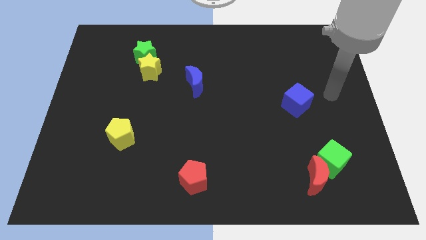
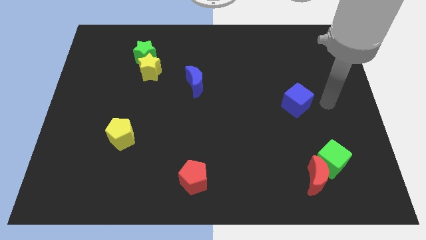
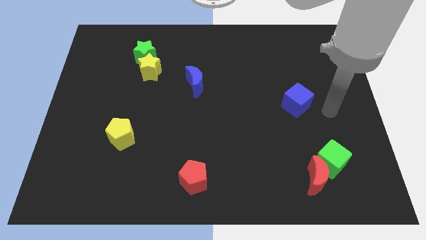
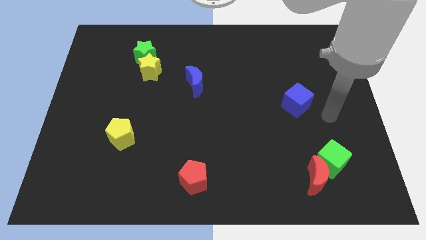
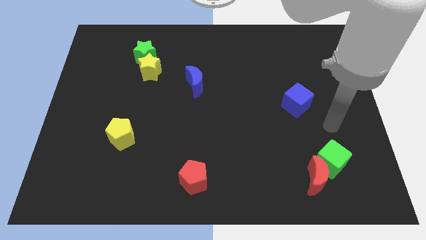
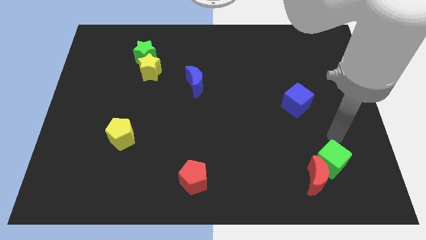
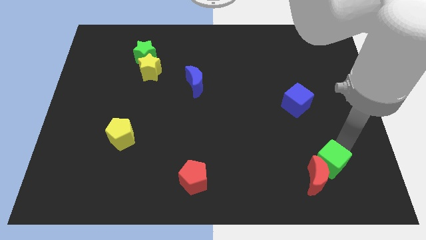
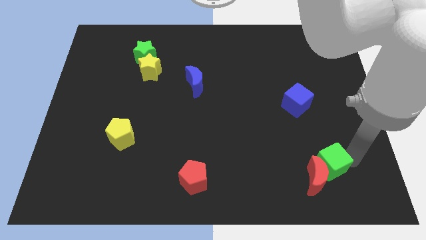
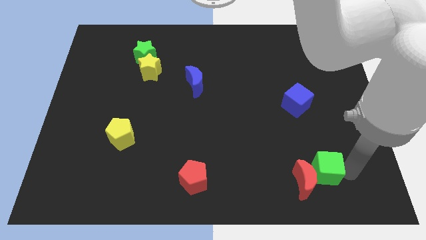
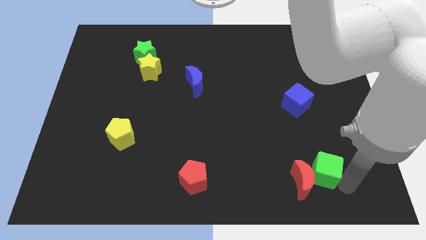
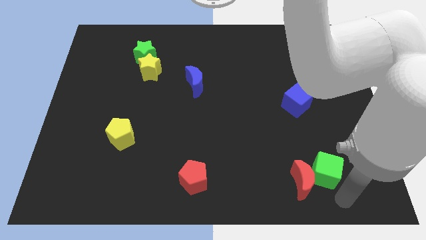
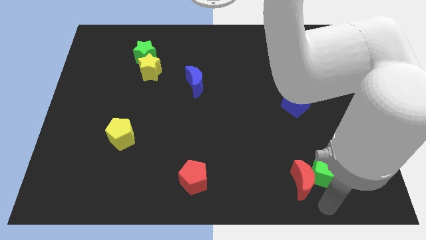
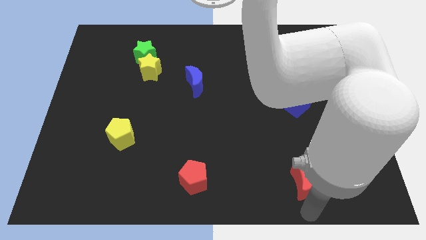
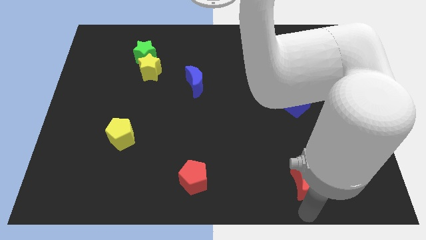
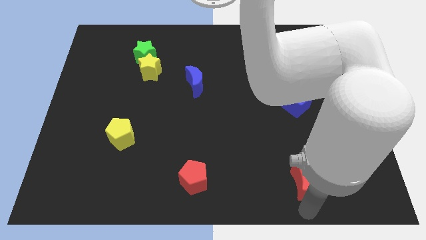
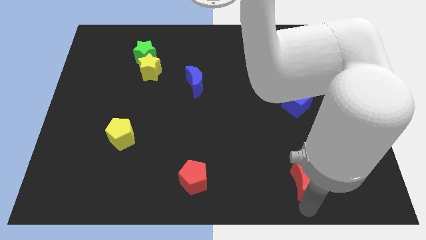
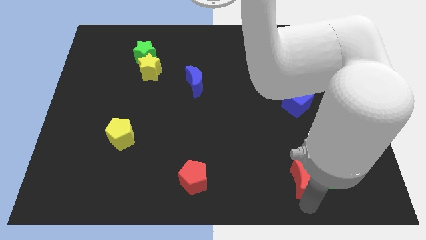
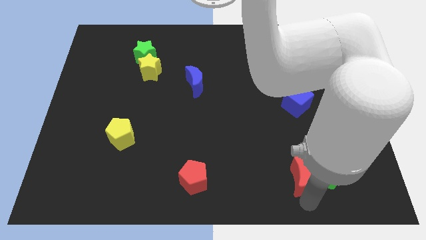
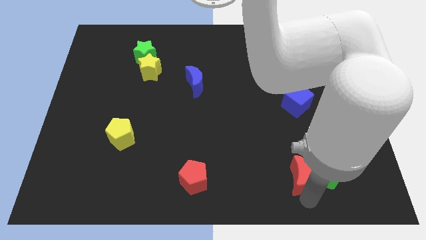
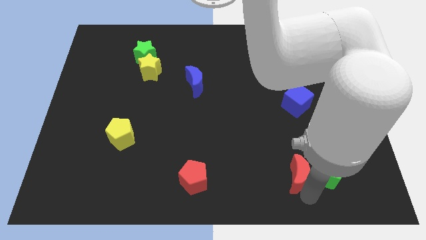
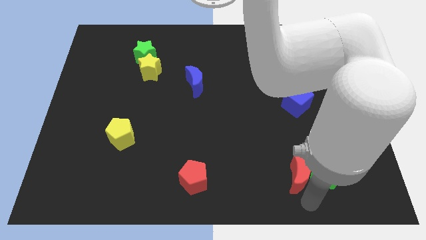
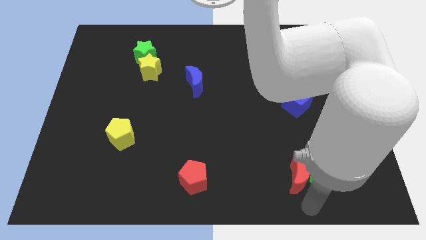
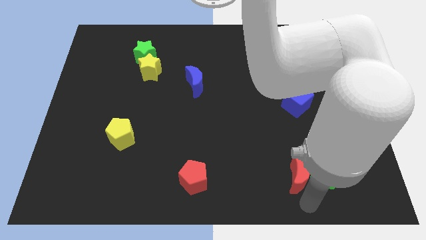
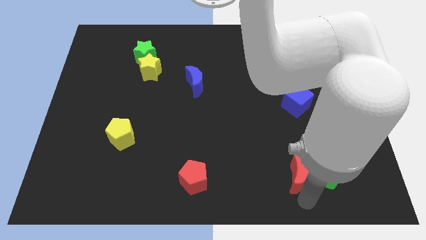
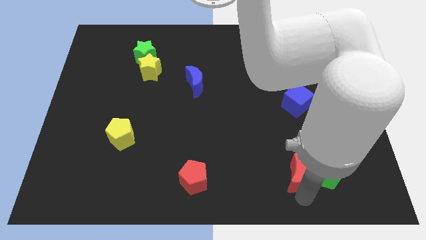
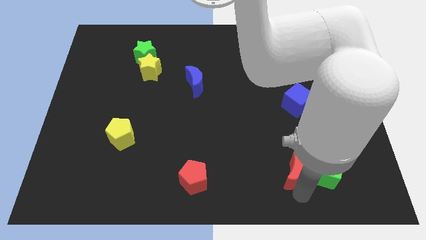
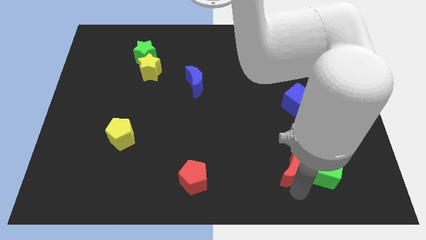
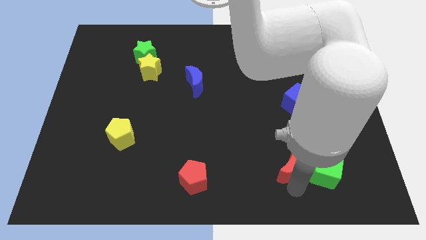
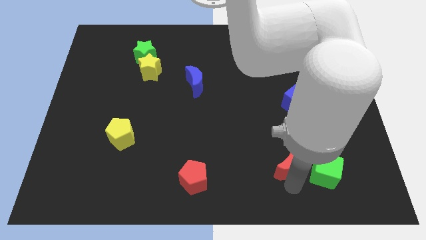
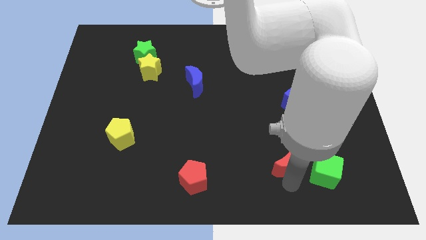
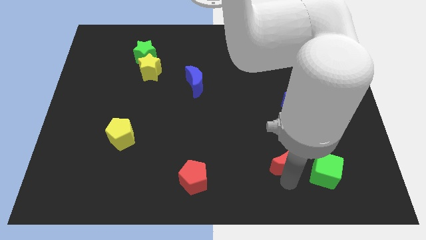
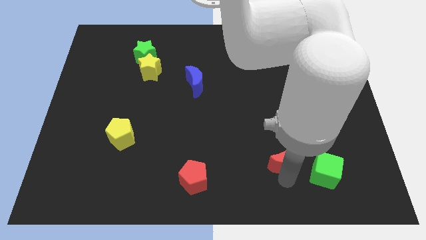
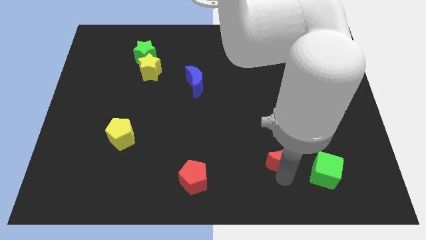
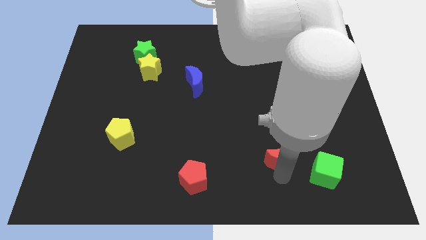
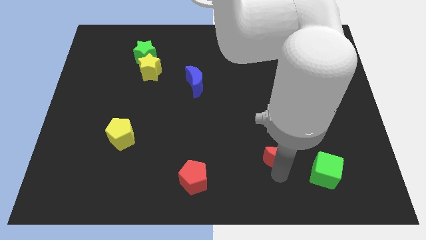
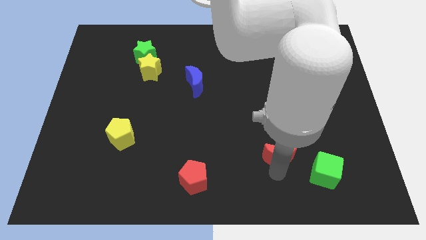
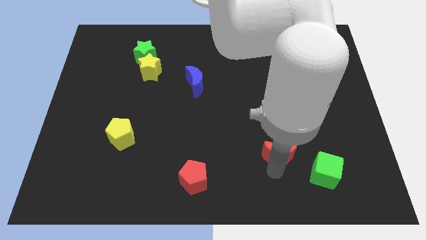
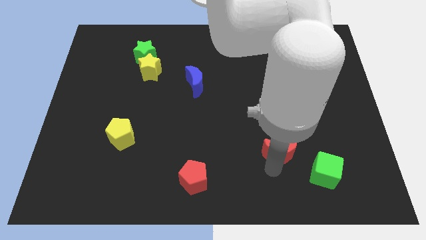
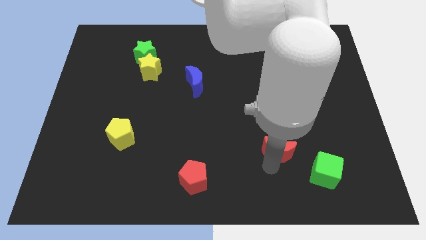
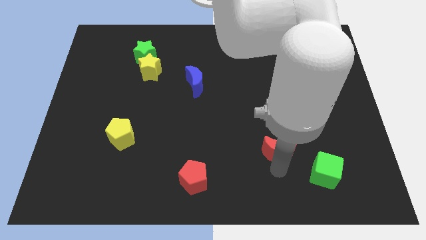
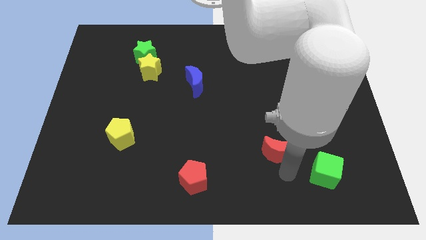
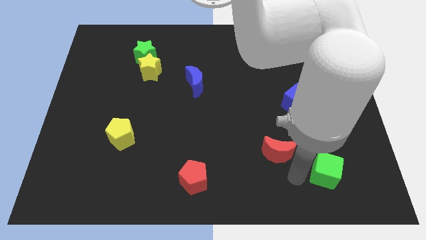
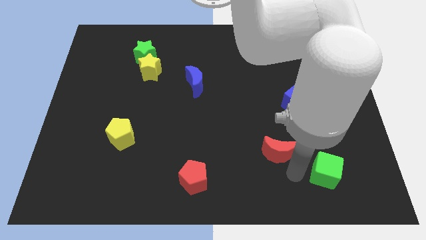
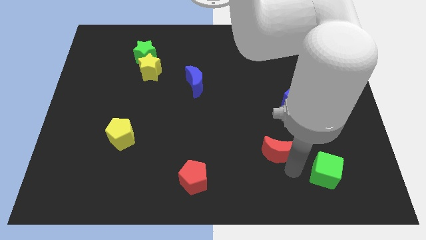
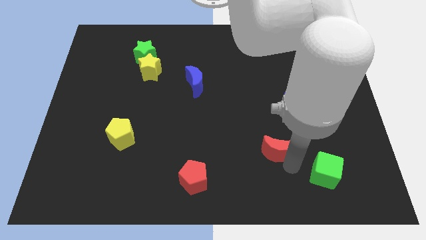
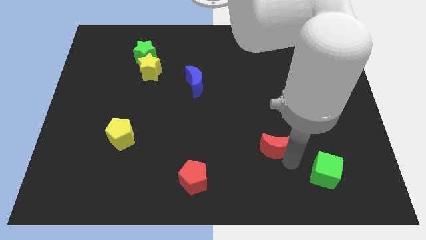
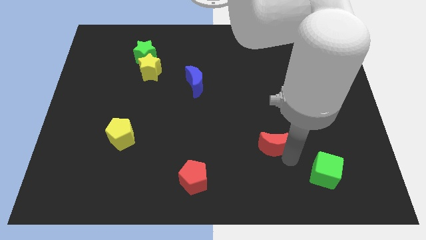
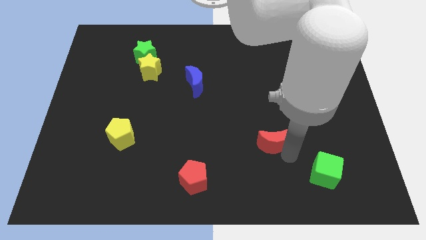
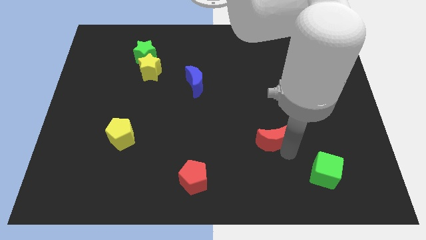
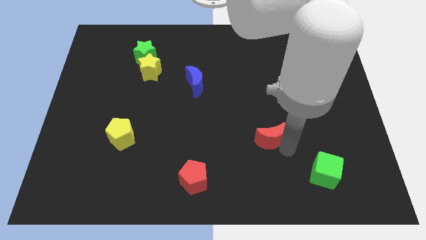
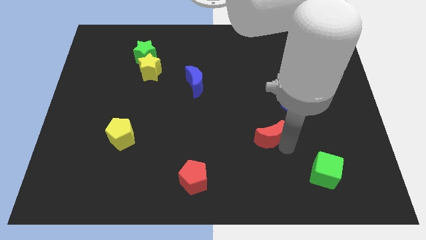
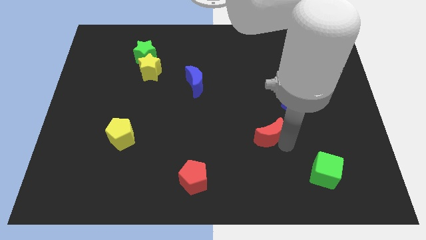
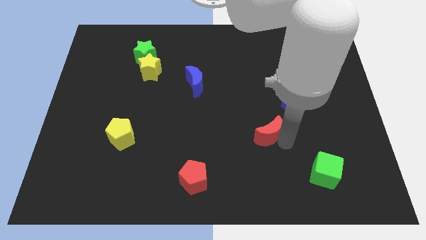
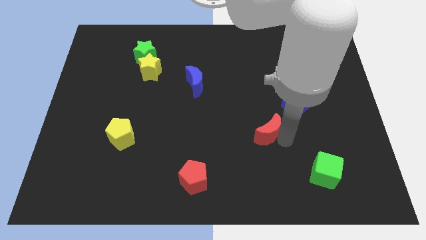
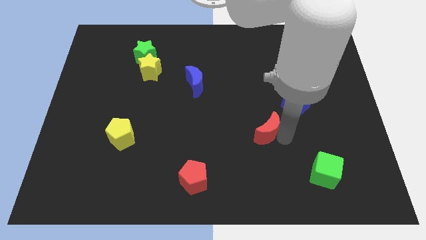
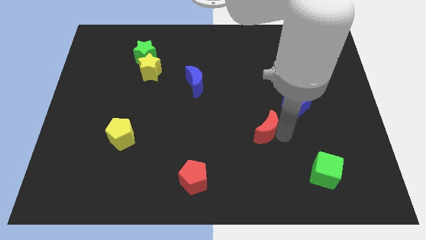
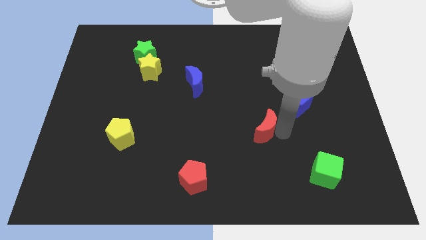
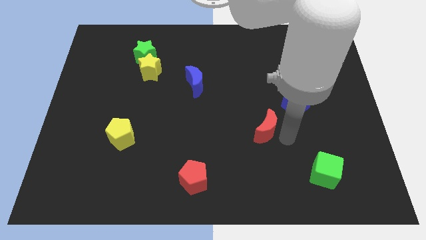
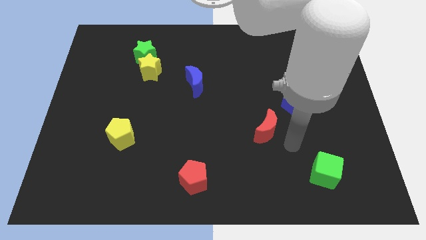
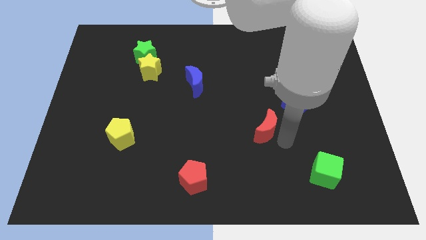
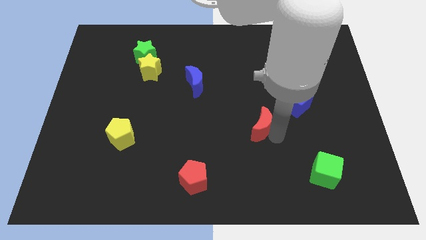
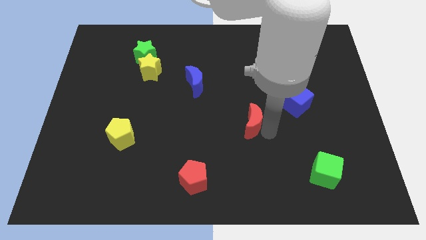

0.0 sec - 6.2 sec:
move the red moon to the middle

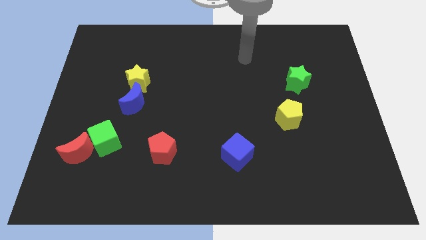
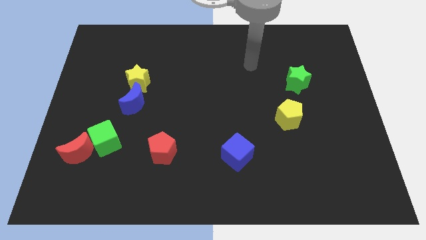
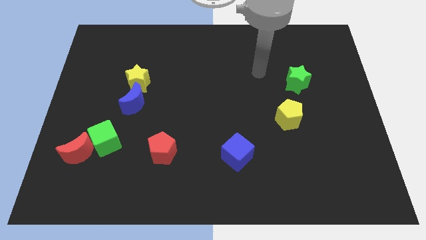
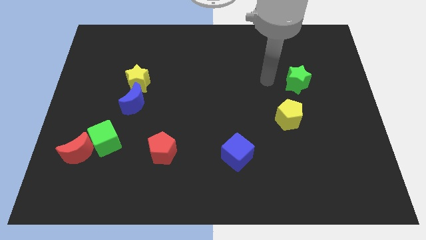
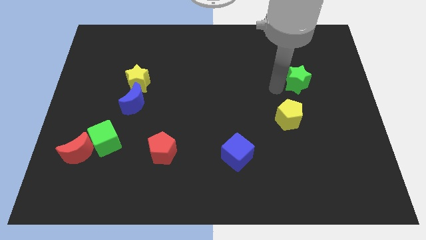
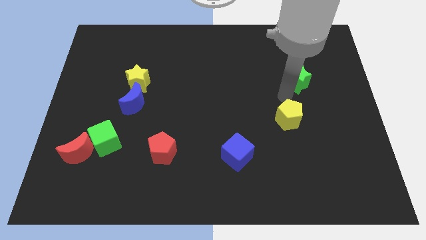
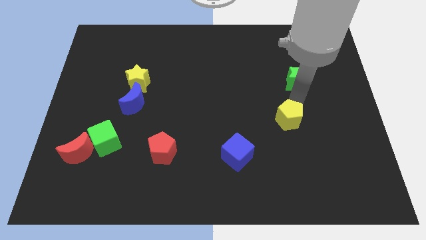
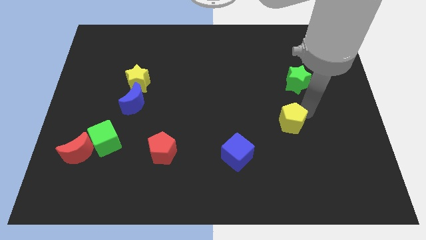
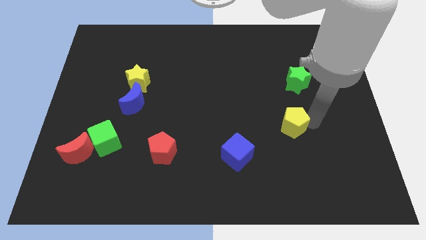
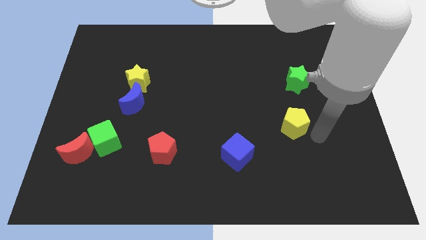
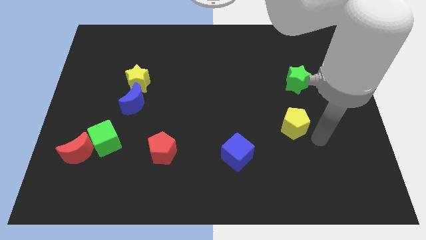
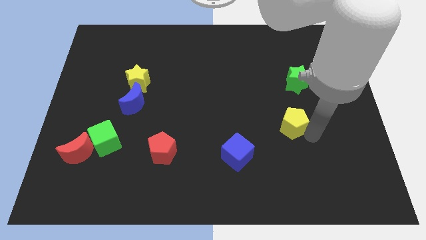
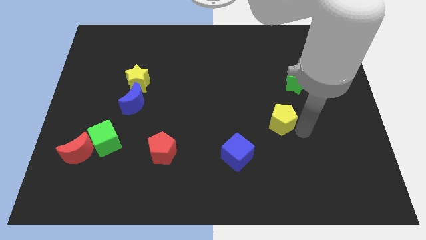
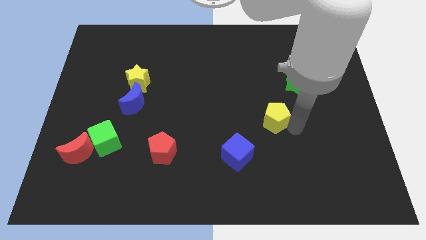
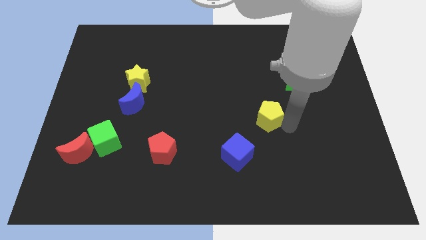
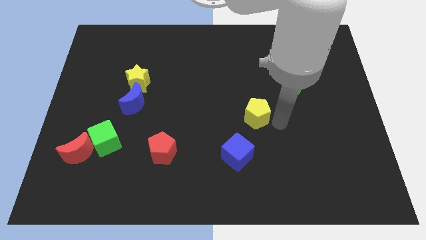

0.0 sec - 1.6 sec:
slide the yellow pentagon to the center
